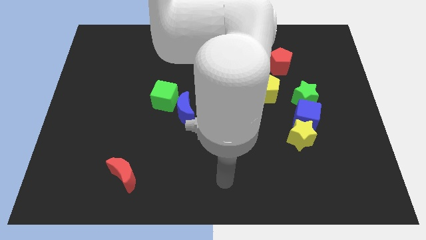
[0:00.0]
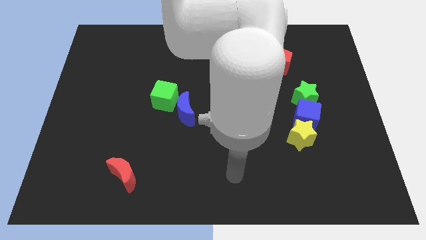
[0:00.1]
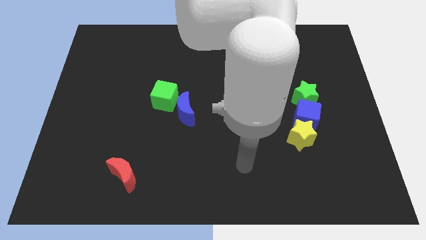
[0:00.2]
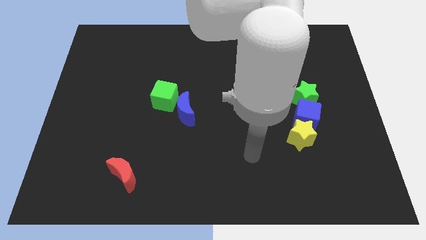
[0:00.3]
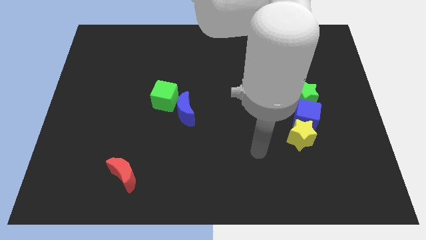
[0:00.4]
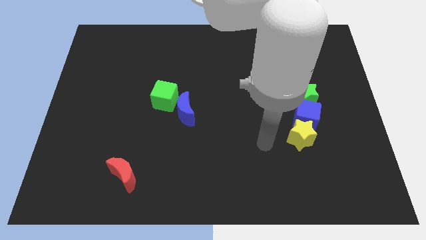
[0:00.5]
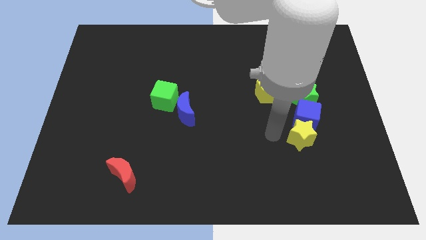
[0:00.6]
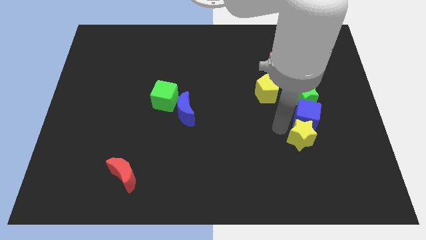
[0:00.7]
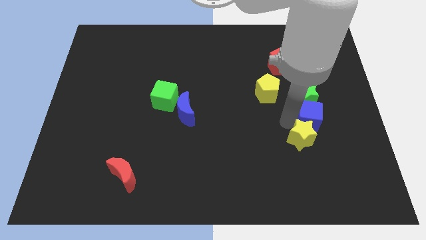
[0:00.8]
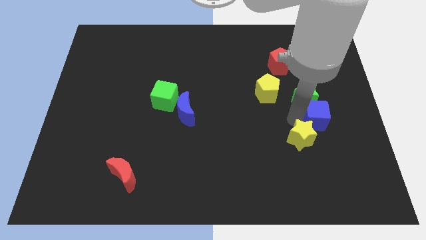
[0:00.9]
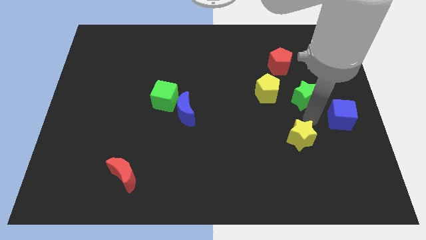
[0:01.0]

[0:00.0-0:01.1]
separate the yellow star from the blue cube

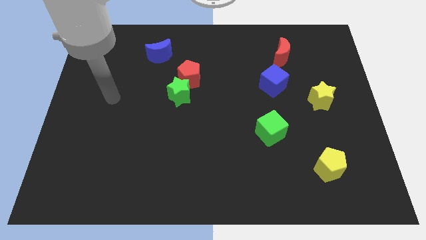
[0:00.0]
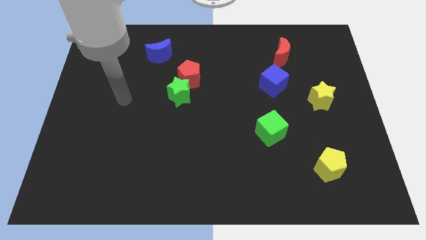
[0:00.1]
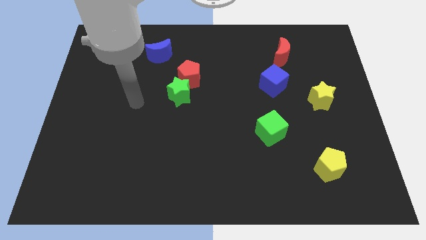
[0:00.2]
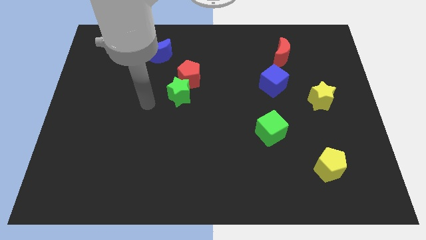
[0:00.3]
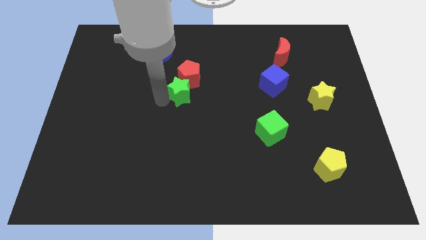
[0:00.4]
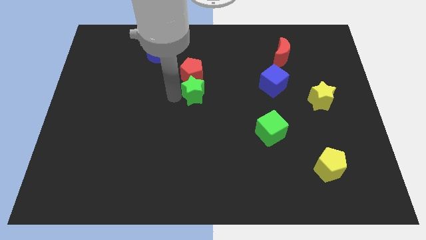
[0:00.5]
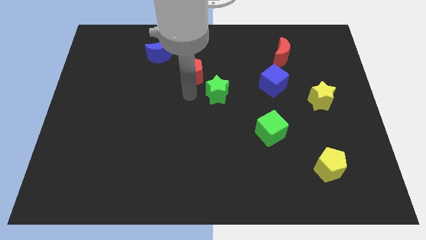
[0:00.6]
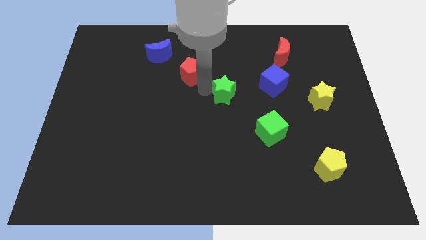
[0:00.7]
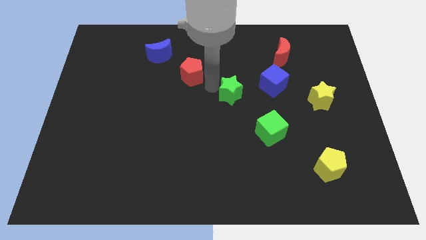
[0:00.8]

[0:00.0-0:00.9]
move the red pentagon away from the green star

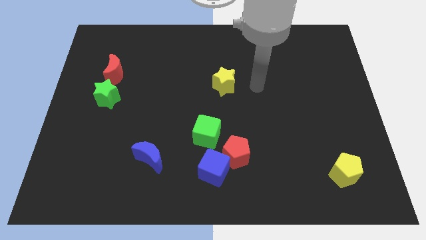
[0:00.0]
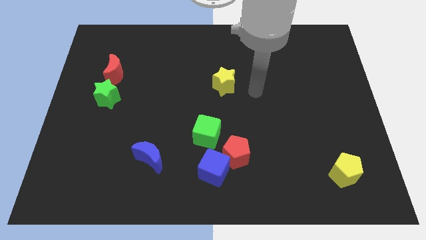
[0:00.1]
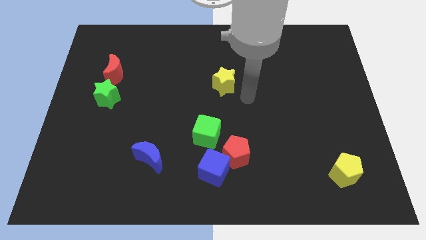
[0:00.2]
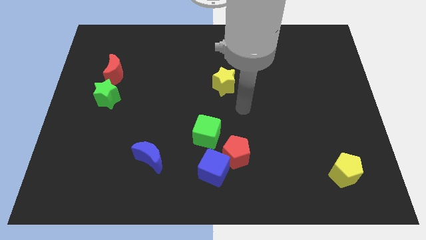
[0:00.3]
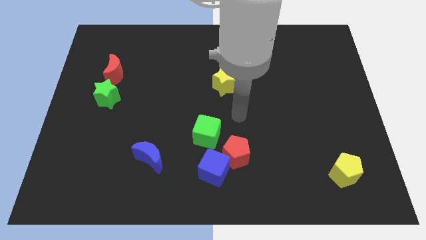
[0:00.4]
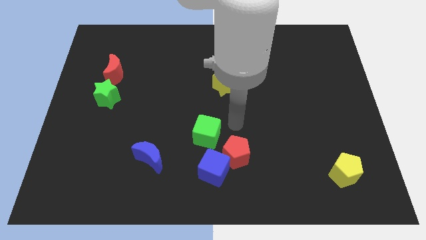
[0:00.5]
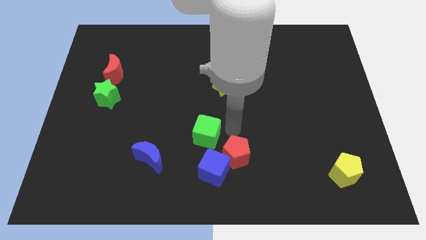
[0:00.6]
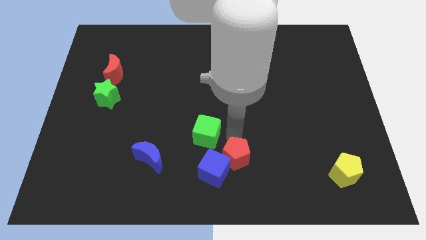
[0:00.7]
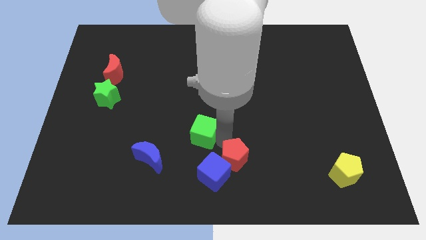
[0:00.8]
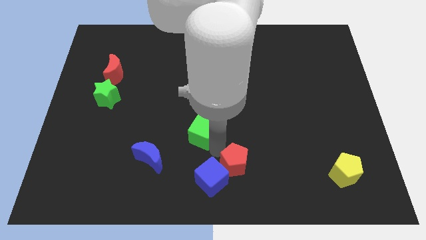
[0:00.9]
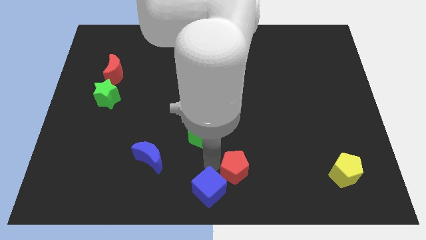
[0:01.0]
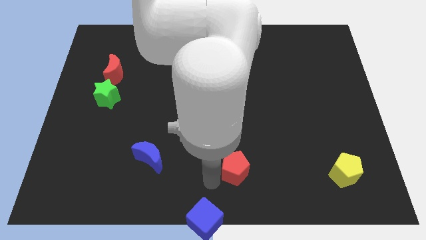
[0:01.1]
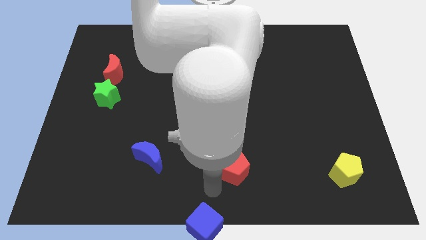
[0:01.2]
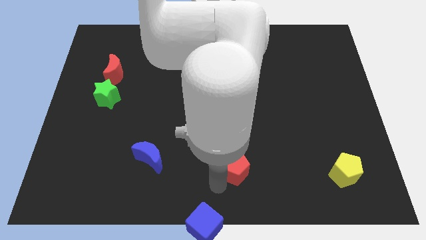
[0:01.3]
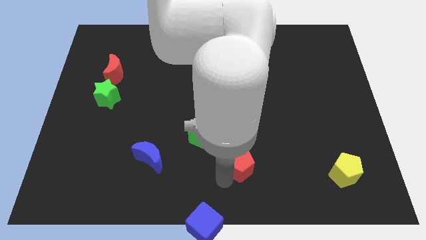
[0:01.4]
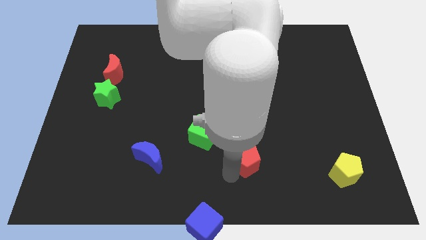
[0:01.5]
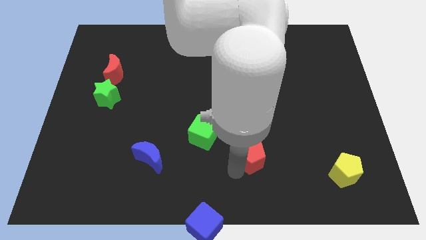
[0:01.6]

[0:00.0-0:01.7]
separate the red pentagon from the blue cube and green cube

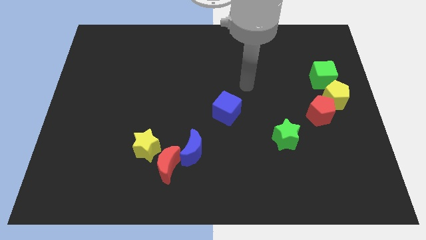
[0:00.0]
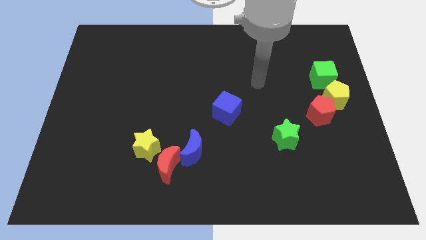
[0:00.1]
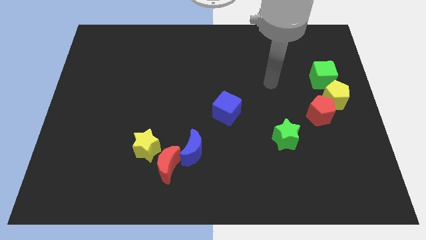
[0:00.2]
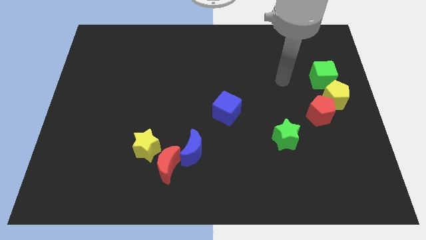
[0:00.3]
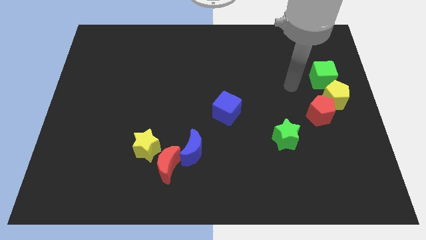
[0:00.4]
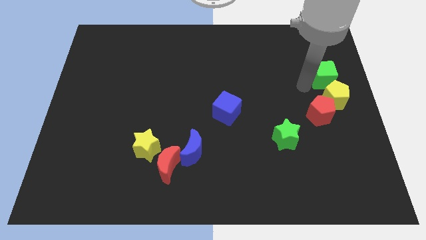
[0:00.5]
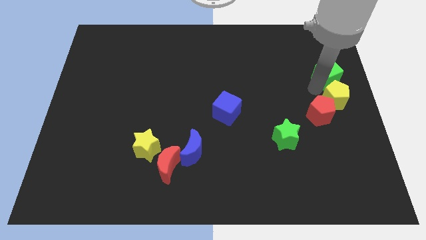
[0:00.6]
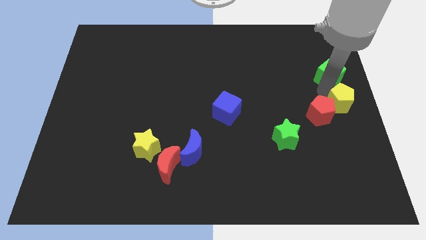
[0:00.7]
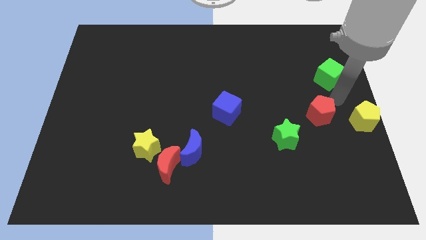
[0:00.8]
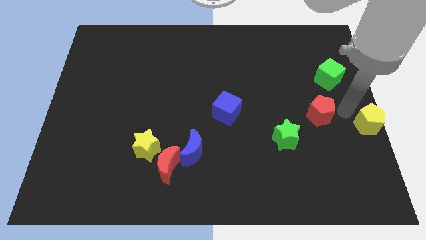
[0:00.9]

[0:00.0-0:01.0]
pull the red pentagon apart from the yellow pentagon

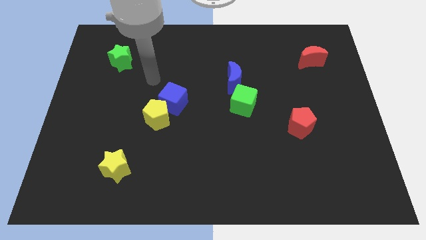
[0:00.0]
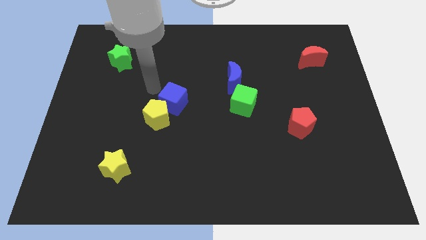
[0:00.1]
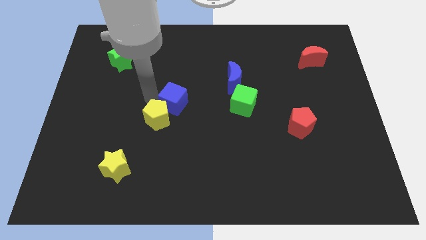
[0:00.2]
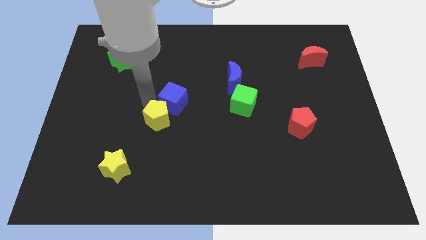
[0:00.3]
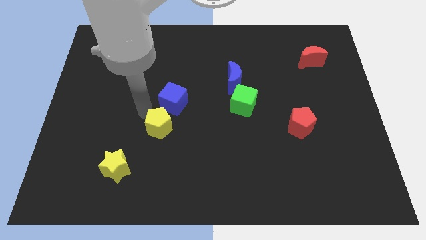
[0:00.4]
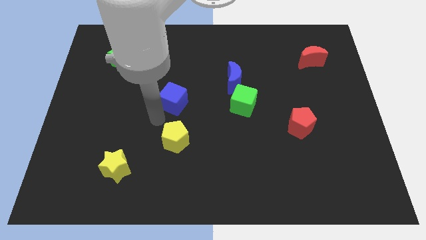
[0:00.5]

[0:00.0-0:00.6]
separate the blue cube from the yellow pentagon

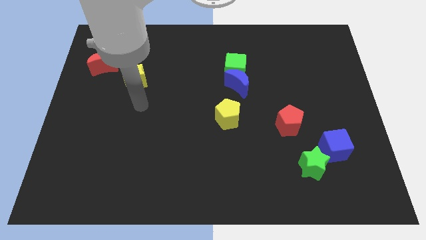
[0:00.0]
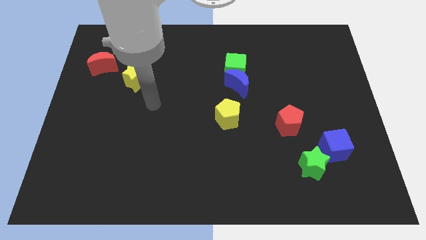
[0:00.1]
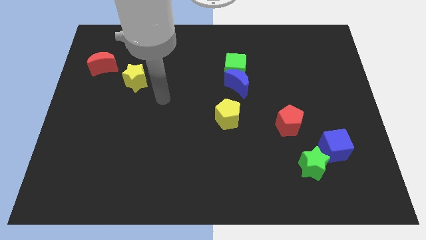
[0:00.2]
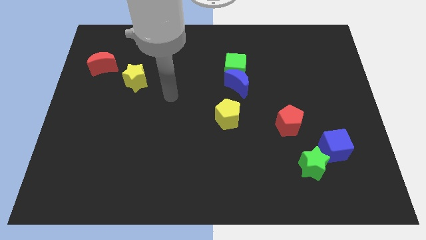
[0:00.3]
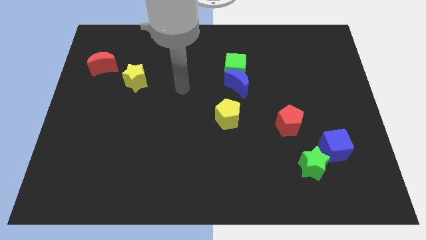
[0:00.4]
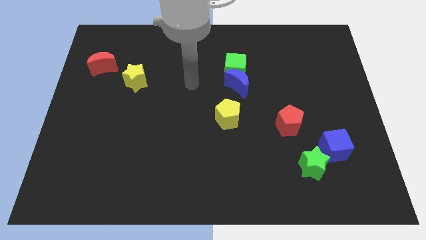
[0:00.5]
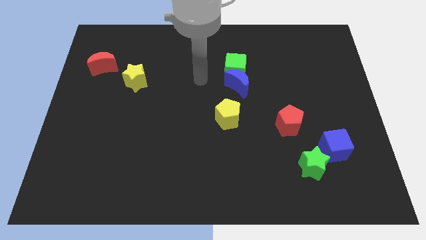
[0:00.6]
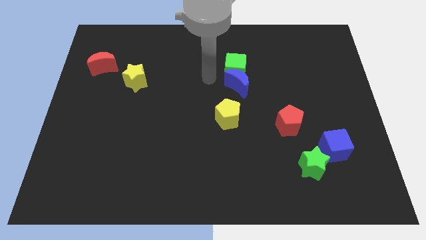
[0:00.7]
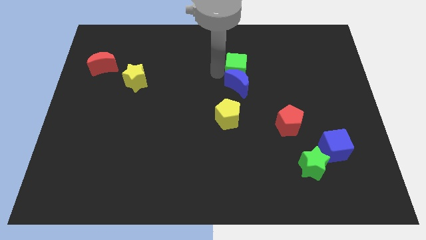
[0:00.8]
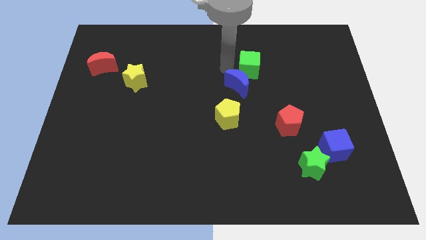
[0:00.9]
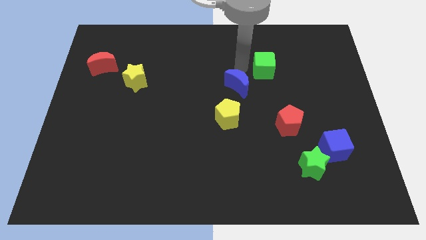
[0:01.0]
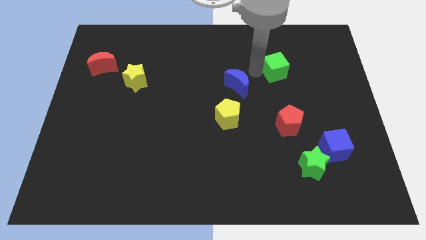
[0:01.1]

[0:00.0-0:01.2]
move the blue moon away from the green cube

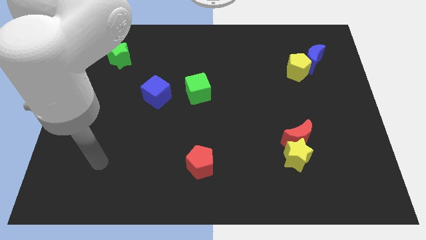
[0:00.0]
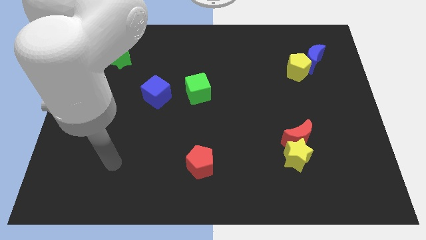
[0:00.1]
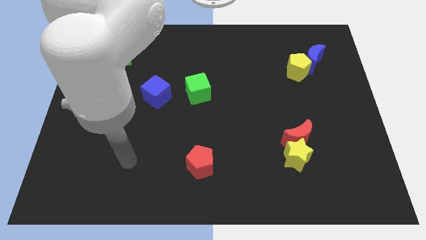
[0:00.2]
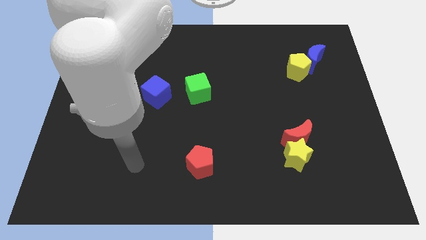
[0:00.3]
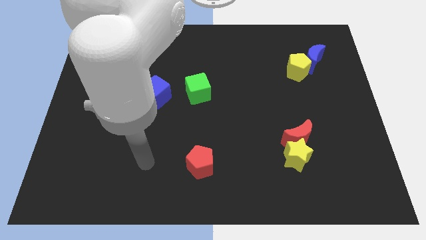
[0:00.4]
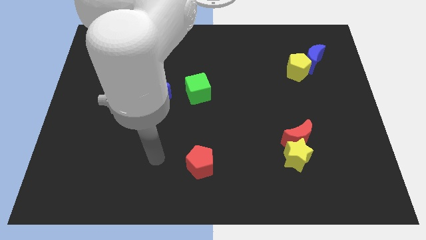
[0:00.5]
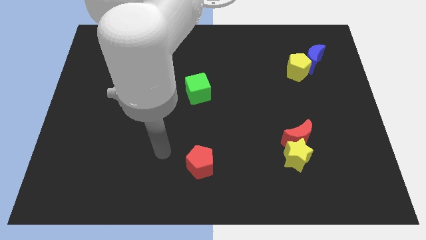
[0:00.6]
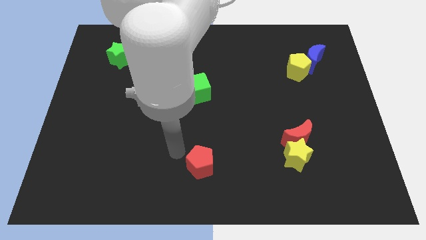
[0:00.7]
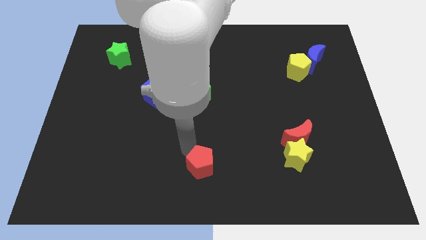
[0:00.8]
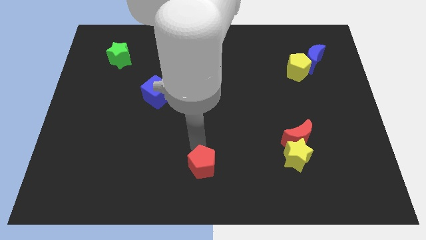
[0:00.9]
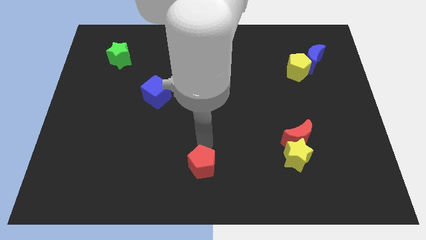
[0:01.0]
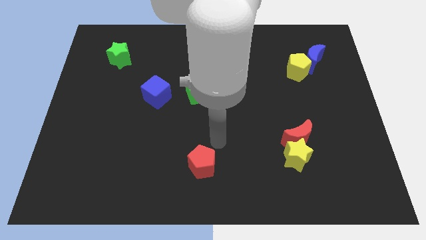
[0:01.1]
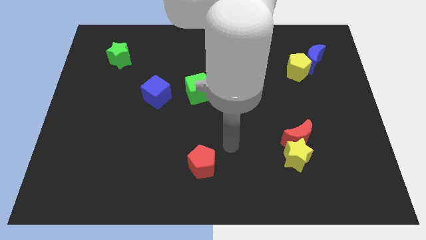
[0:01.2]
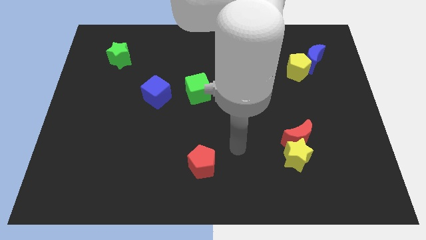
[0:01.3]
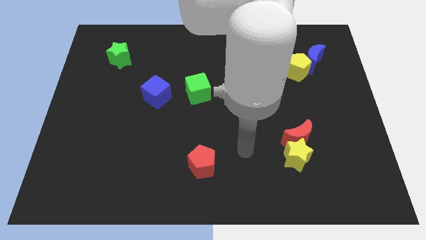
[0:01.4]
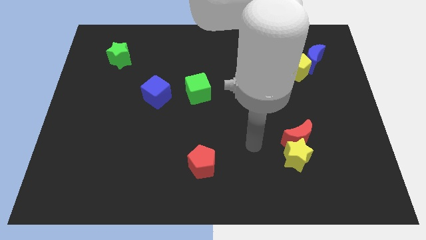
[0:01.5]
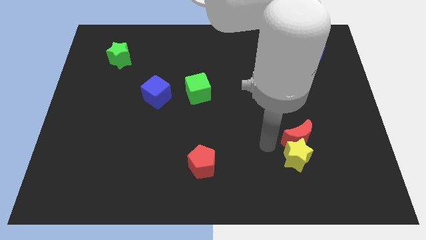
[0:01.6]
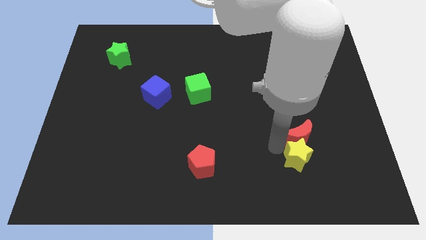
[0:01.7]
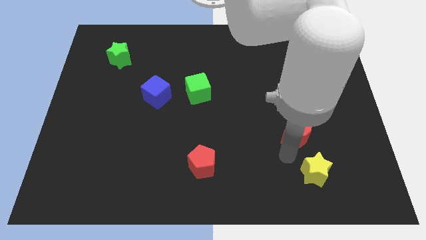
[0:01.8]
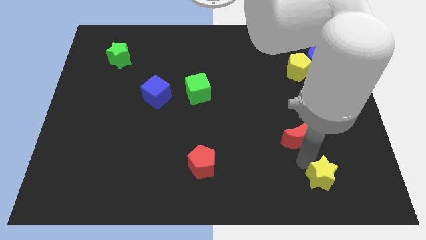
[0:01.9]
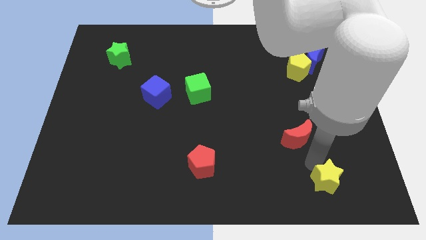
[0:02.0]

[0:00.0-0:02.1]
move the red moon away from the yellow star

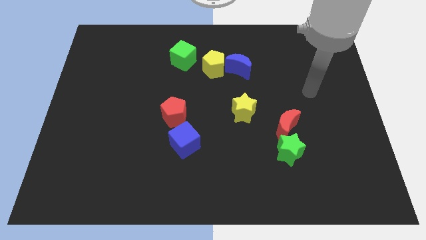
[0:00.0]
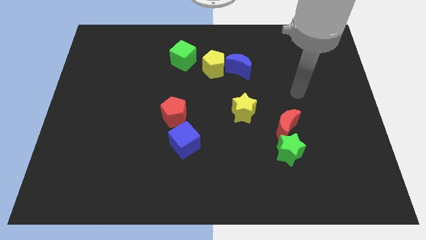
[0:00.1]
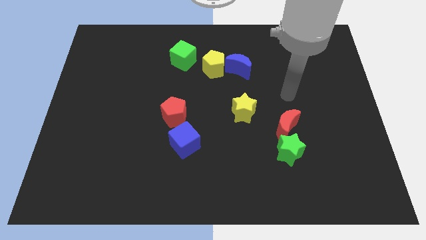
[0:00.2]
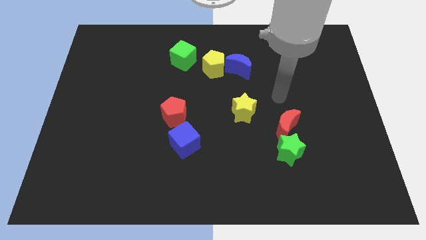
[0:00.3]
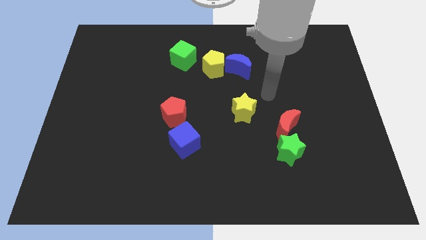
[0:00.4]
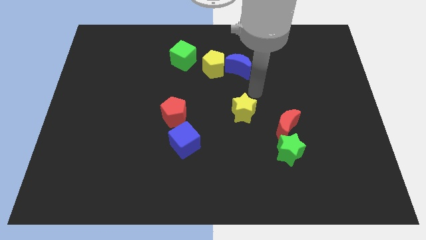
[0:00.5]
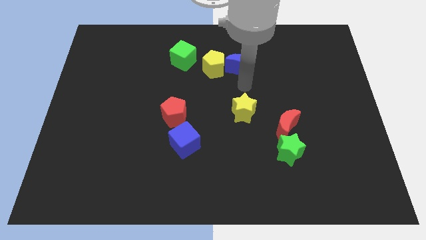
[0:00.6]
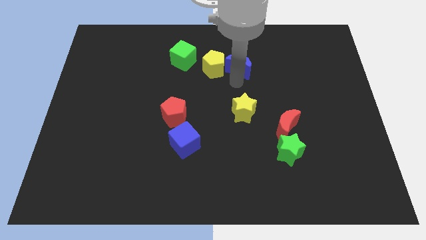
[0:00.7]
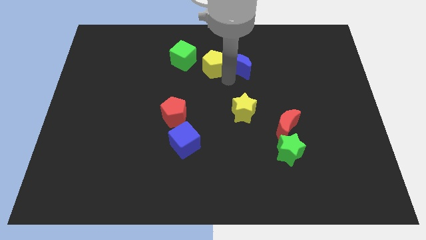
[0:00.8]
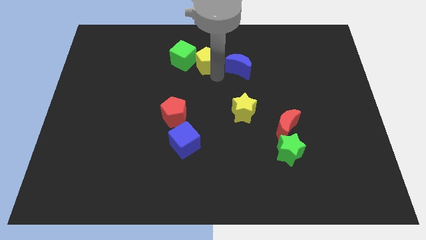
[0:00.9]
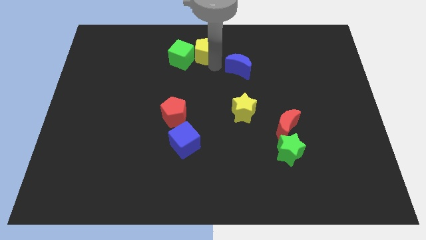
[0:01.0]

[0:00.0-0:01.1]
pull the blue moon apart from the yellow pentagon
